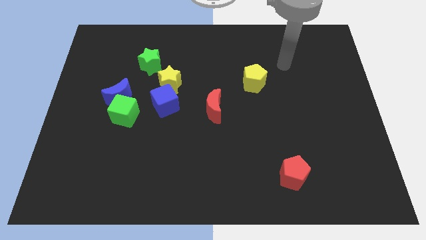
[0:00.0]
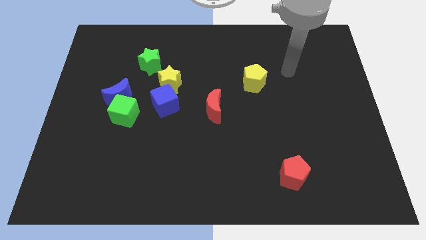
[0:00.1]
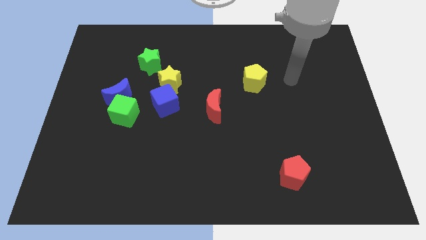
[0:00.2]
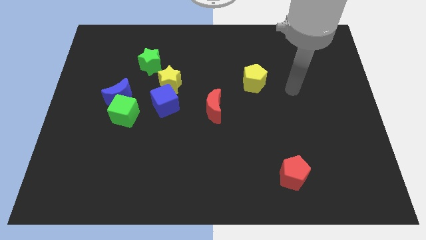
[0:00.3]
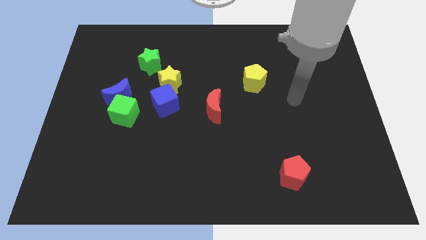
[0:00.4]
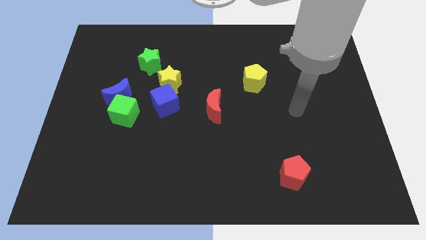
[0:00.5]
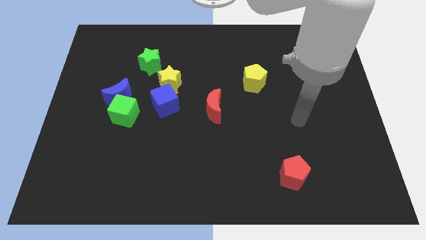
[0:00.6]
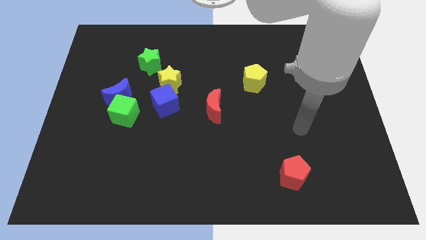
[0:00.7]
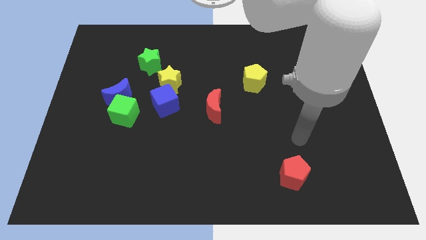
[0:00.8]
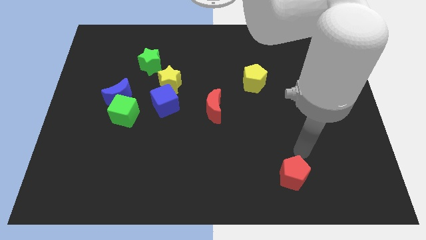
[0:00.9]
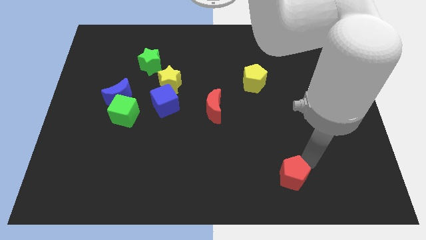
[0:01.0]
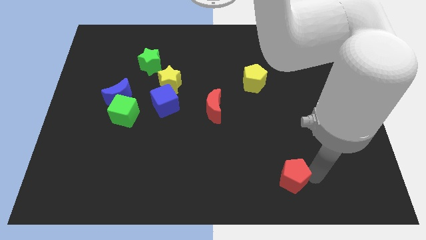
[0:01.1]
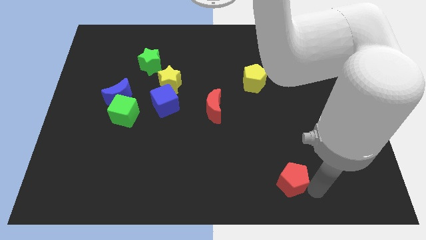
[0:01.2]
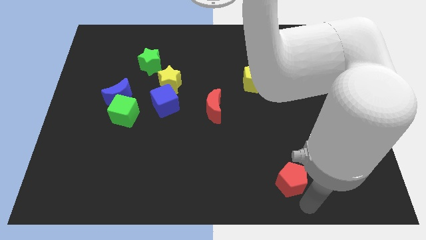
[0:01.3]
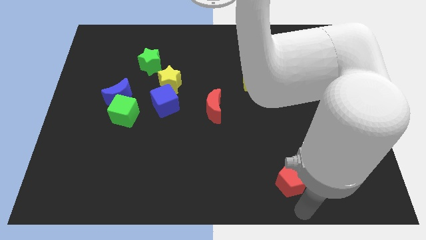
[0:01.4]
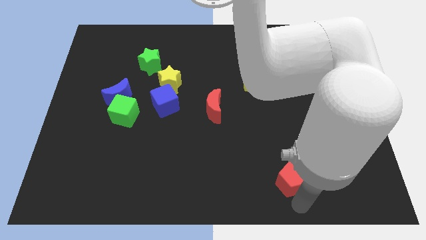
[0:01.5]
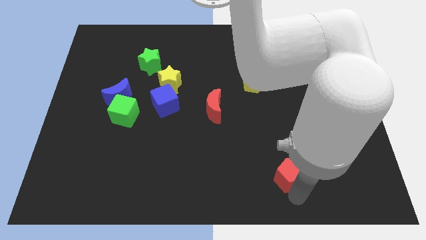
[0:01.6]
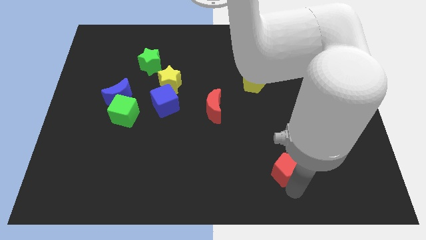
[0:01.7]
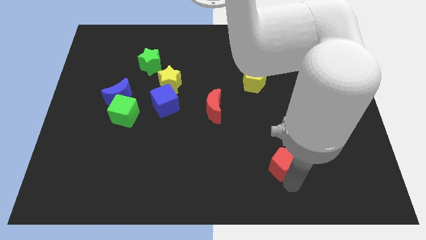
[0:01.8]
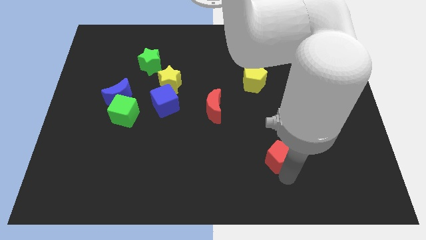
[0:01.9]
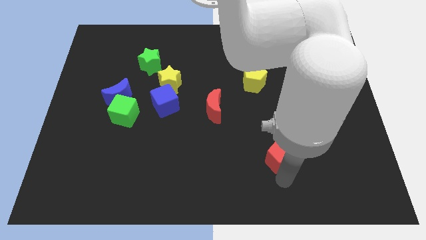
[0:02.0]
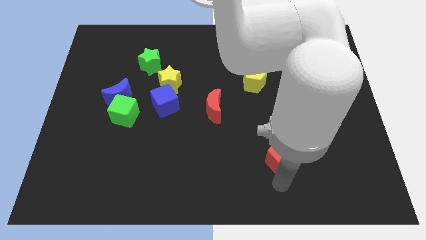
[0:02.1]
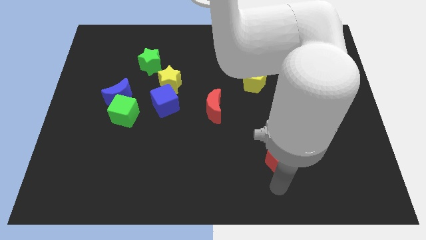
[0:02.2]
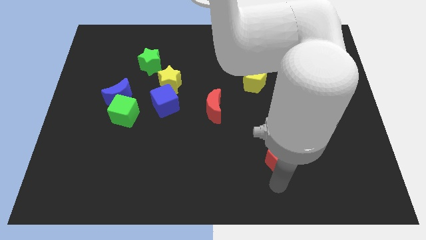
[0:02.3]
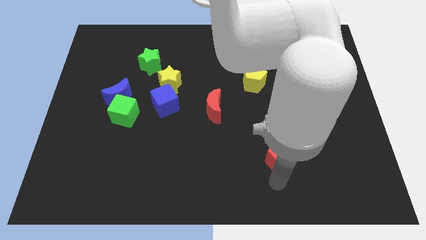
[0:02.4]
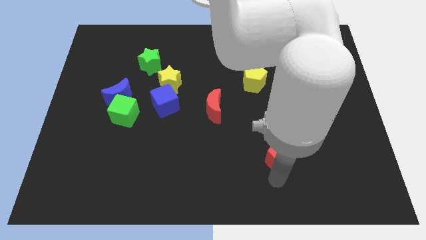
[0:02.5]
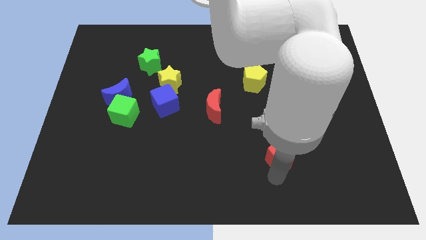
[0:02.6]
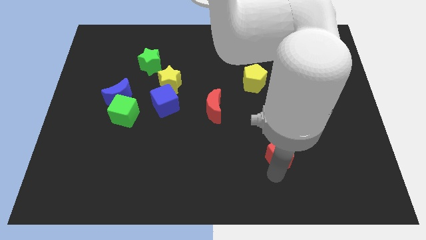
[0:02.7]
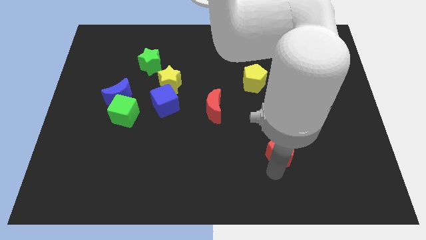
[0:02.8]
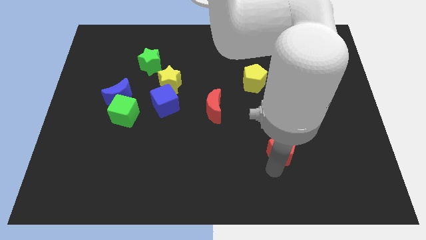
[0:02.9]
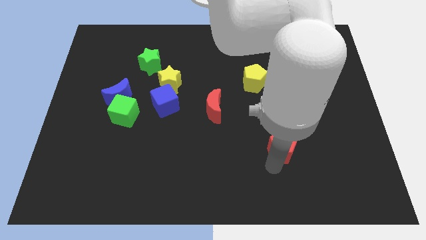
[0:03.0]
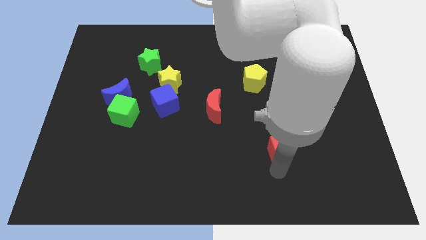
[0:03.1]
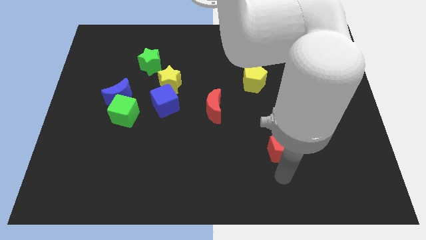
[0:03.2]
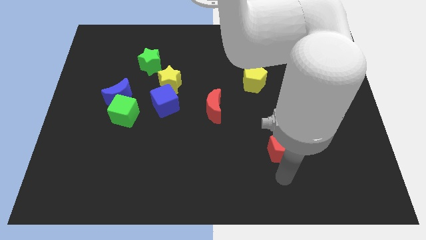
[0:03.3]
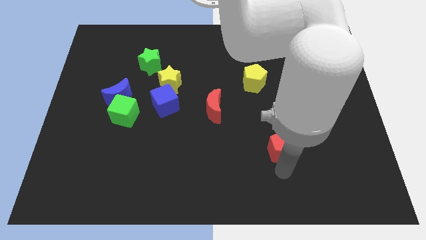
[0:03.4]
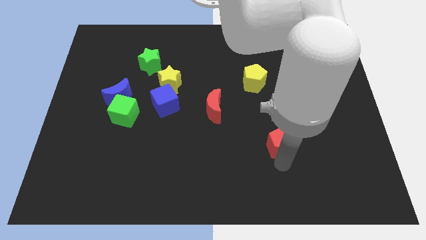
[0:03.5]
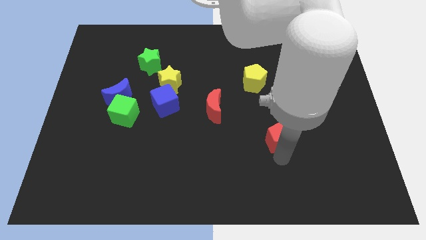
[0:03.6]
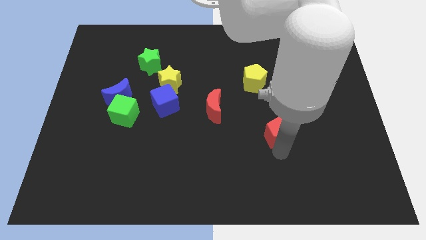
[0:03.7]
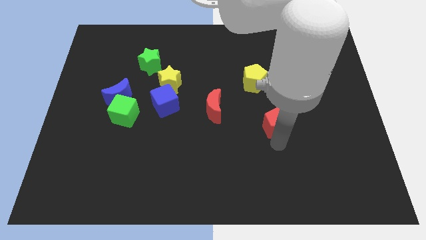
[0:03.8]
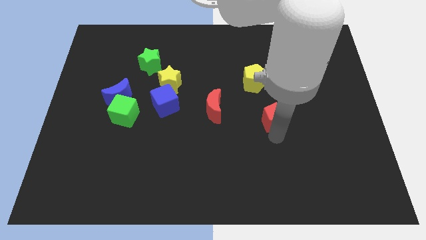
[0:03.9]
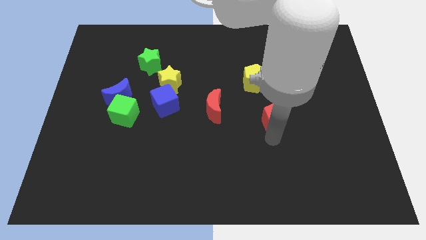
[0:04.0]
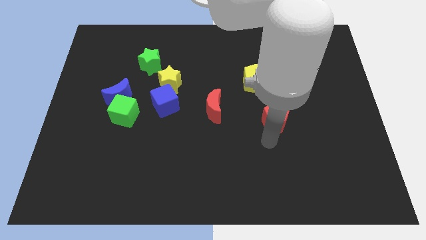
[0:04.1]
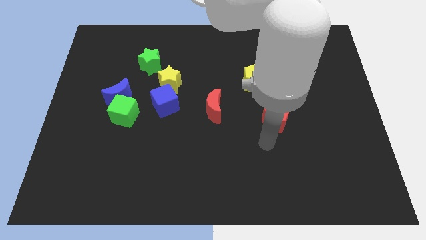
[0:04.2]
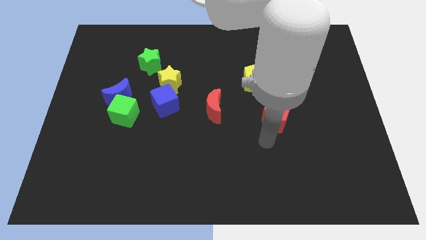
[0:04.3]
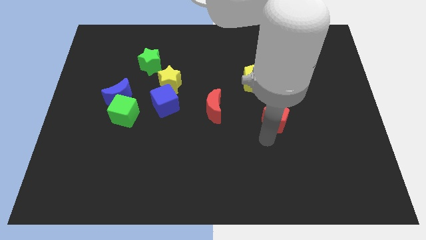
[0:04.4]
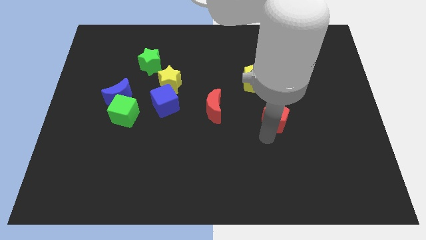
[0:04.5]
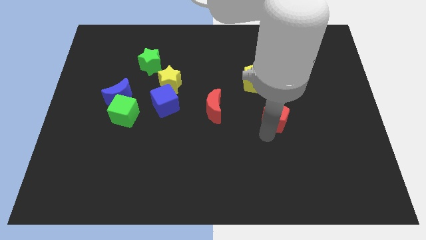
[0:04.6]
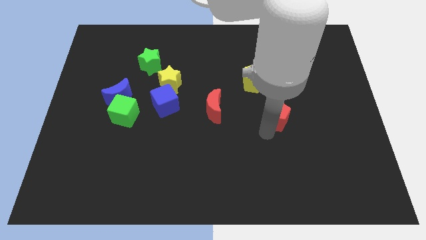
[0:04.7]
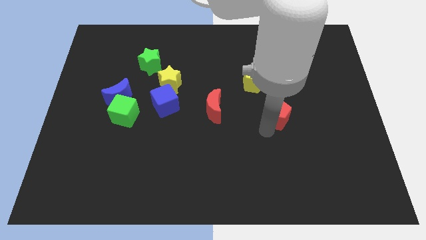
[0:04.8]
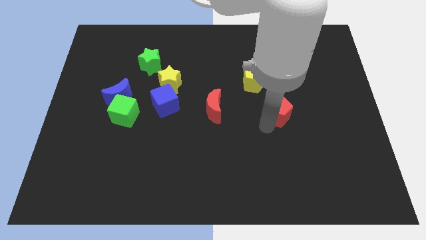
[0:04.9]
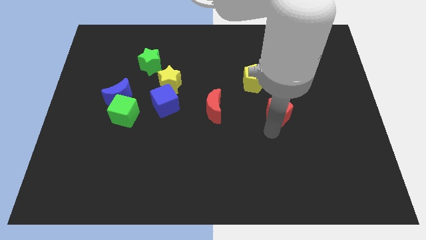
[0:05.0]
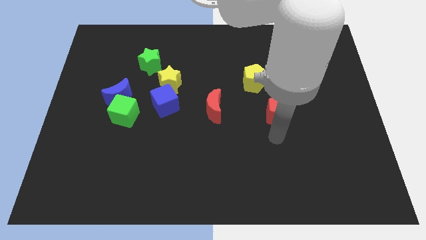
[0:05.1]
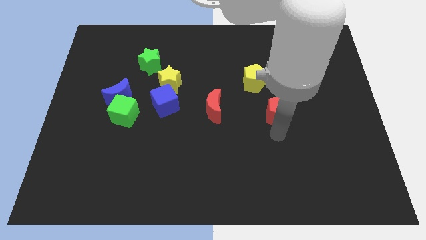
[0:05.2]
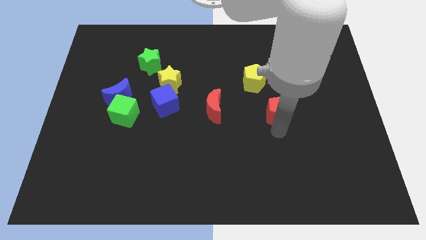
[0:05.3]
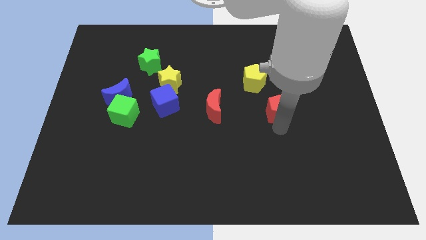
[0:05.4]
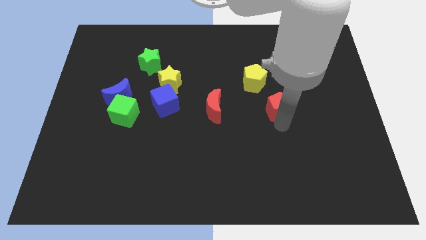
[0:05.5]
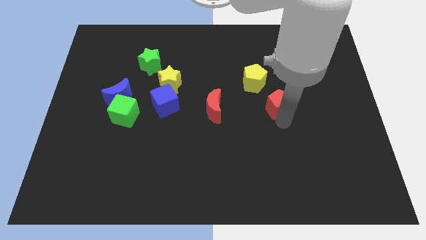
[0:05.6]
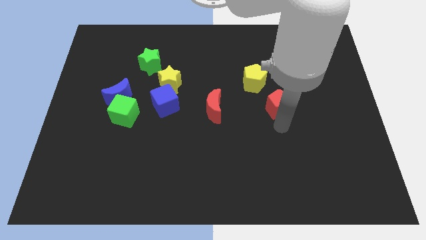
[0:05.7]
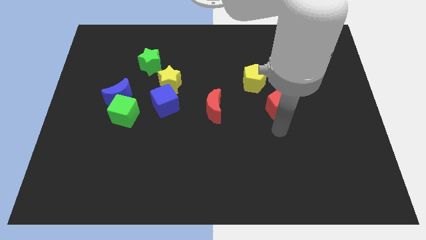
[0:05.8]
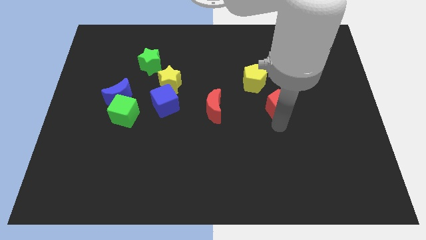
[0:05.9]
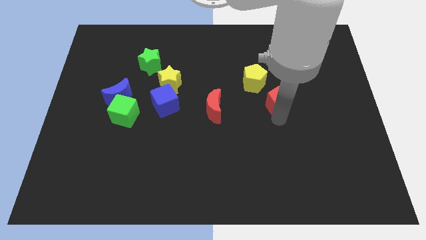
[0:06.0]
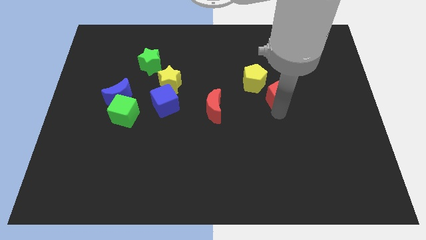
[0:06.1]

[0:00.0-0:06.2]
slide the red pentagon upwards

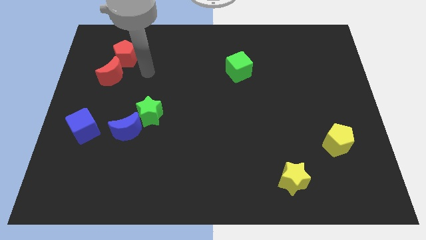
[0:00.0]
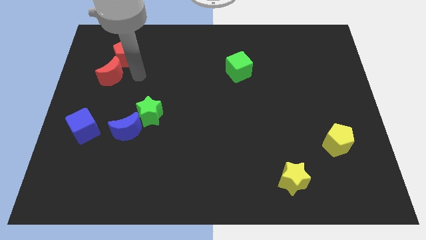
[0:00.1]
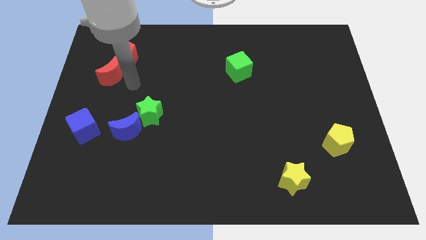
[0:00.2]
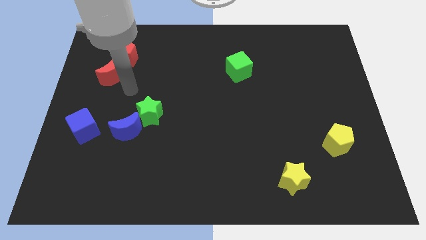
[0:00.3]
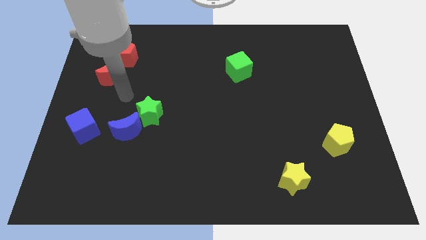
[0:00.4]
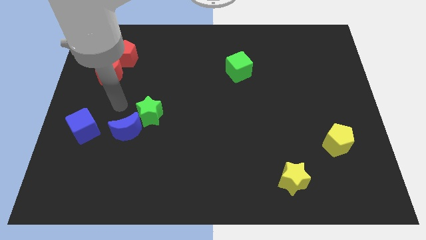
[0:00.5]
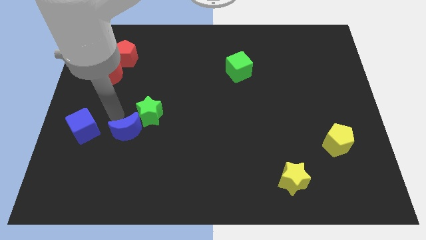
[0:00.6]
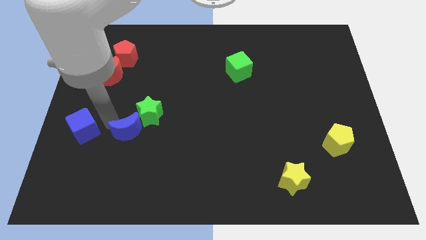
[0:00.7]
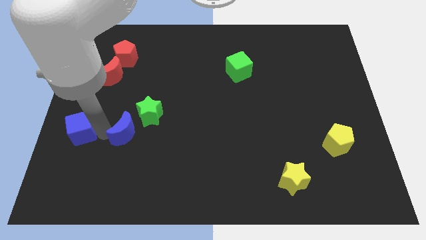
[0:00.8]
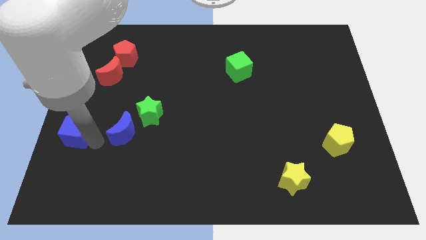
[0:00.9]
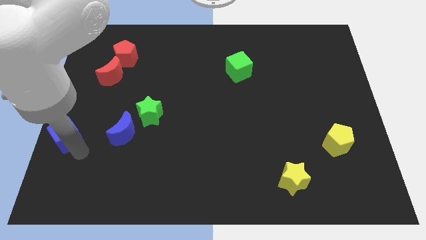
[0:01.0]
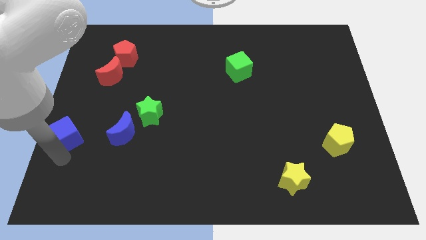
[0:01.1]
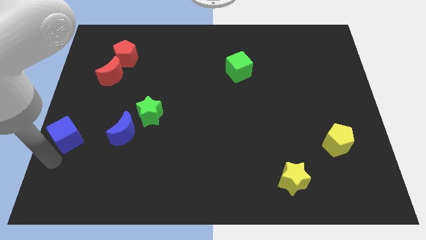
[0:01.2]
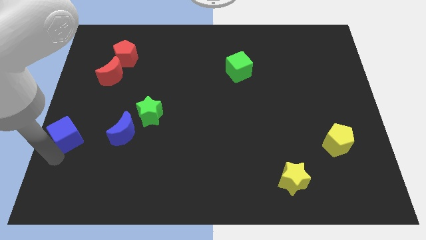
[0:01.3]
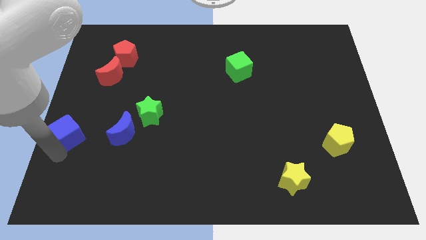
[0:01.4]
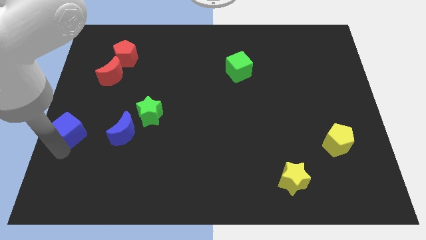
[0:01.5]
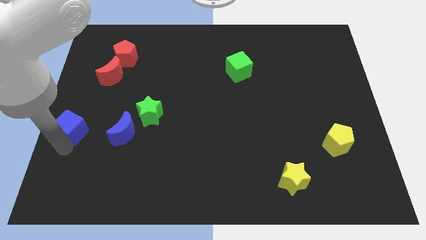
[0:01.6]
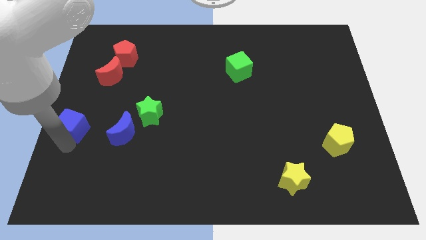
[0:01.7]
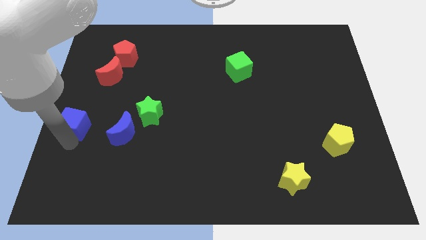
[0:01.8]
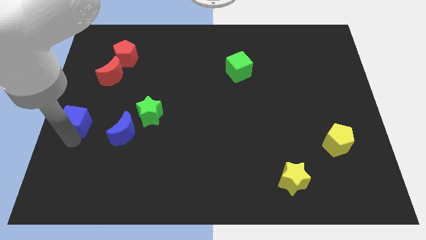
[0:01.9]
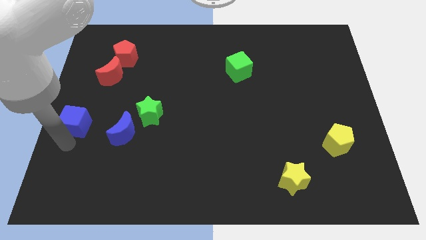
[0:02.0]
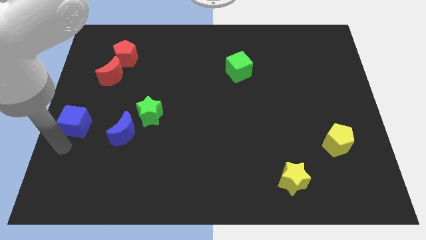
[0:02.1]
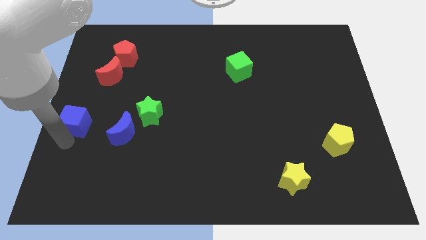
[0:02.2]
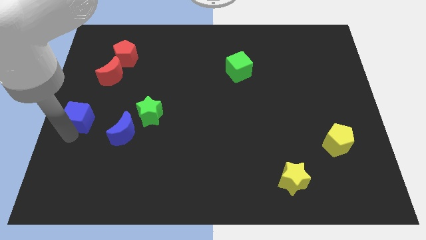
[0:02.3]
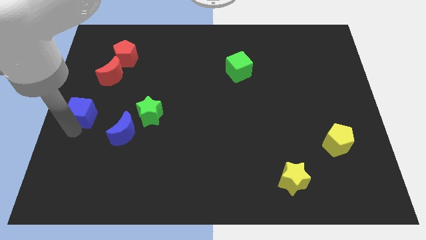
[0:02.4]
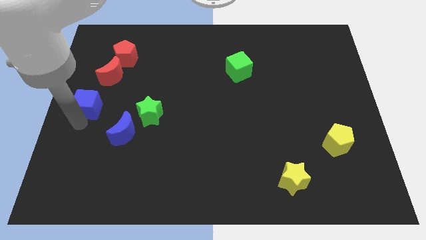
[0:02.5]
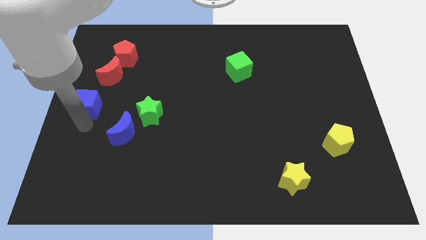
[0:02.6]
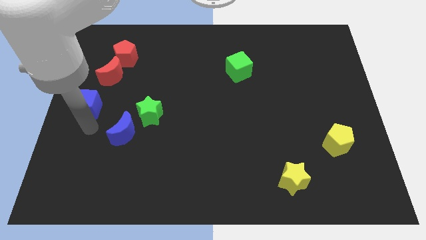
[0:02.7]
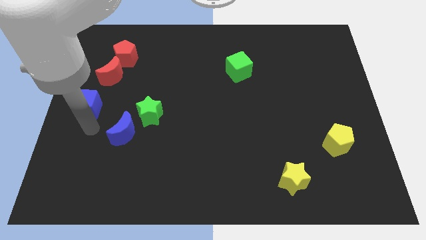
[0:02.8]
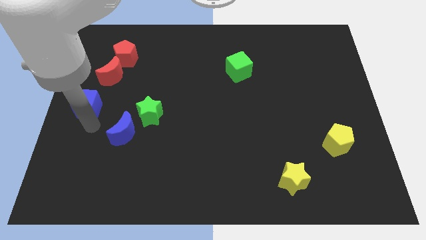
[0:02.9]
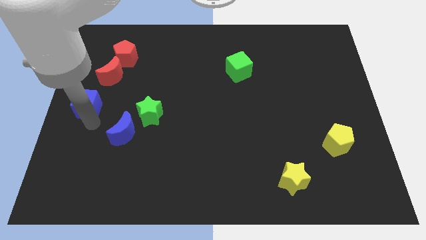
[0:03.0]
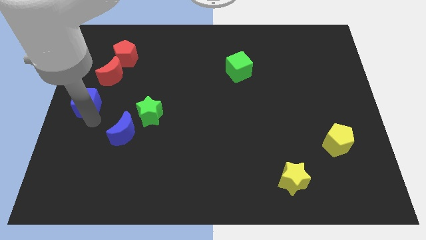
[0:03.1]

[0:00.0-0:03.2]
push the blue cube a bit upwards
